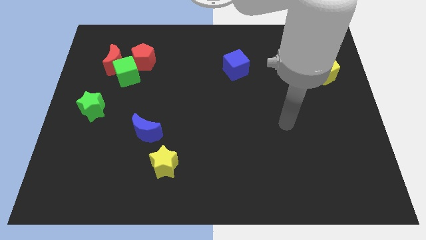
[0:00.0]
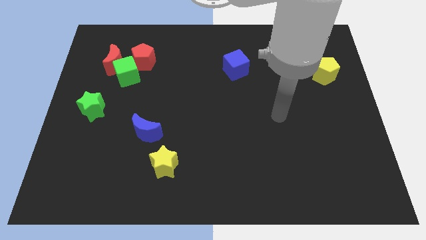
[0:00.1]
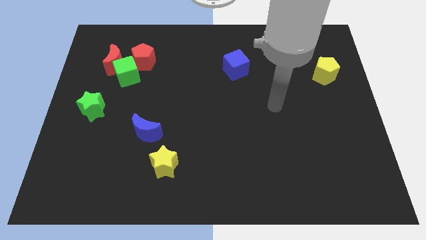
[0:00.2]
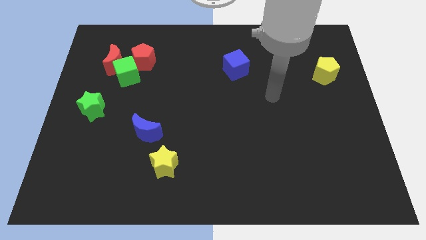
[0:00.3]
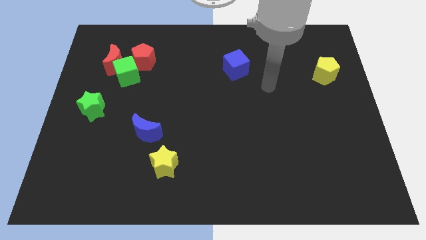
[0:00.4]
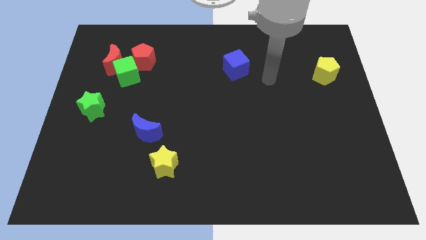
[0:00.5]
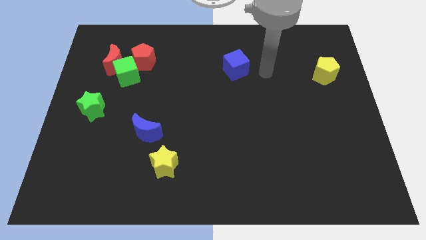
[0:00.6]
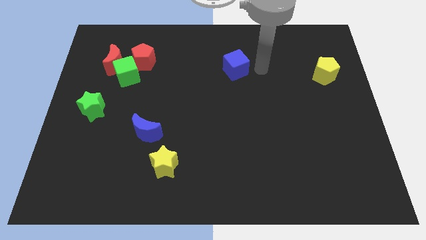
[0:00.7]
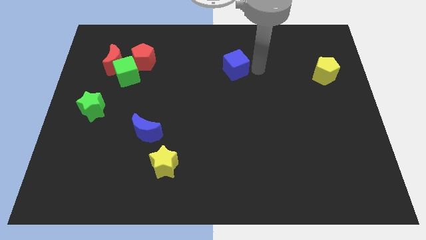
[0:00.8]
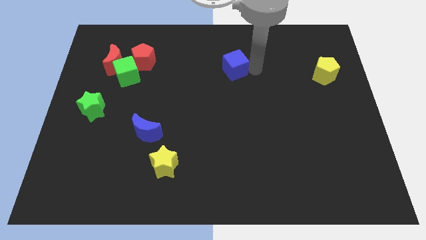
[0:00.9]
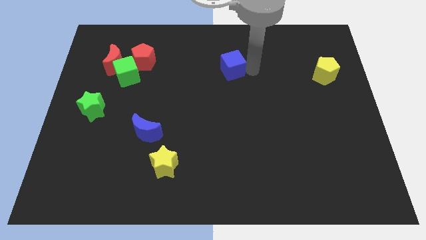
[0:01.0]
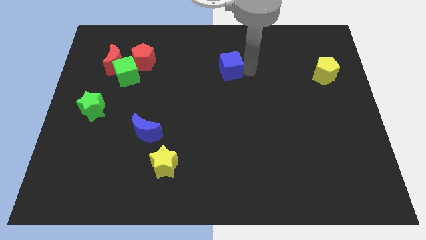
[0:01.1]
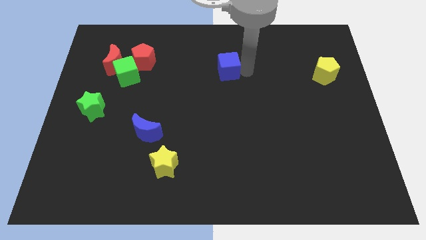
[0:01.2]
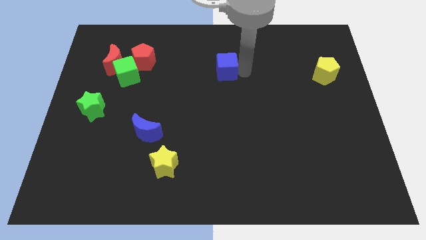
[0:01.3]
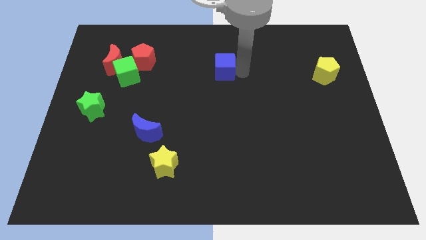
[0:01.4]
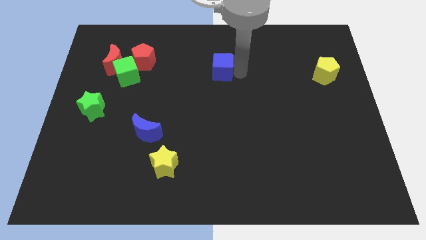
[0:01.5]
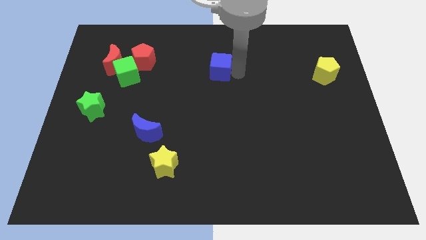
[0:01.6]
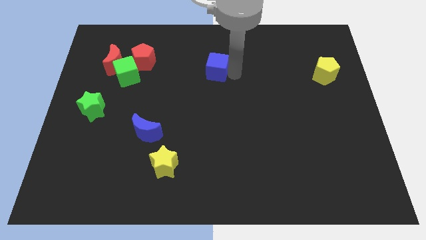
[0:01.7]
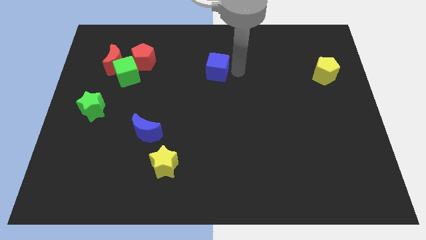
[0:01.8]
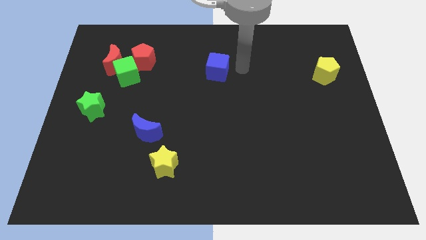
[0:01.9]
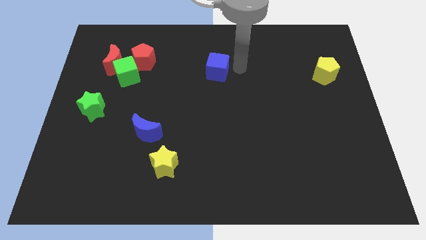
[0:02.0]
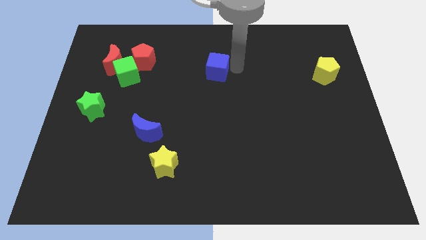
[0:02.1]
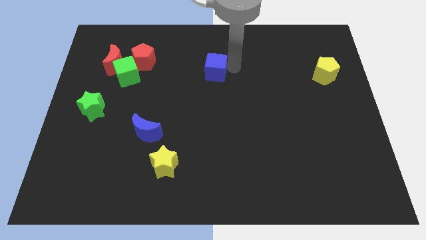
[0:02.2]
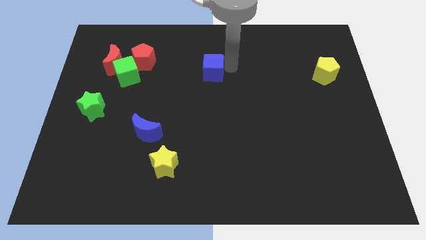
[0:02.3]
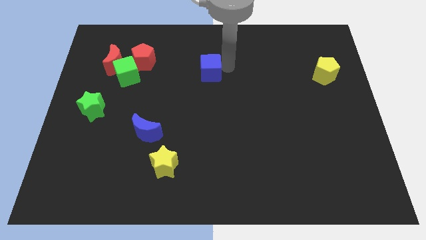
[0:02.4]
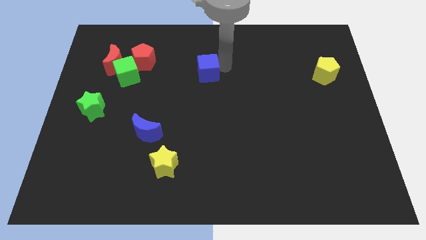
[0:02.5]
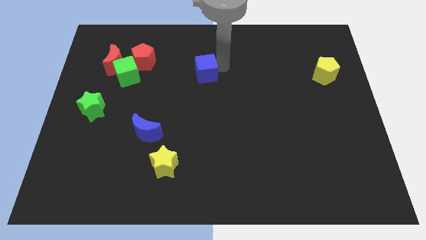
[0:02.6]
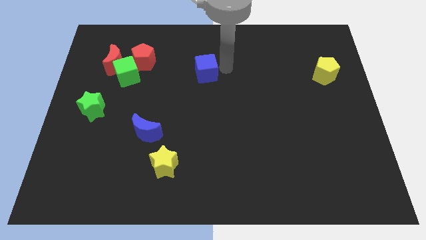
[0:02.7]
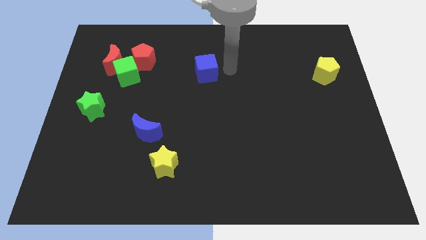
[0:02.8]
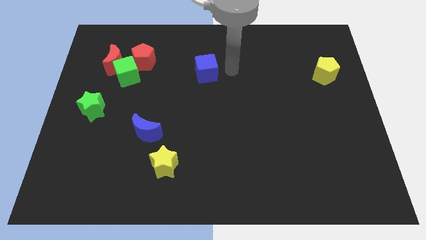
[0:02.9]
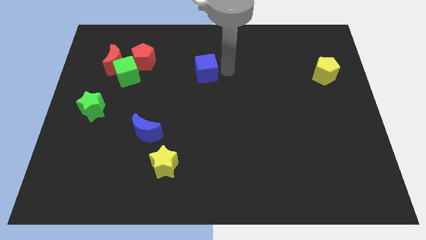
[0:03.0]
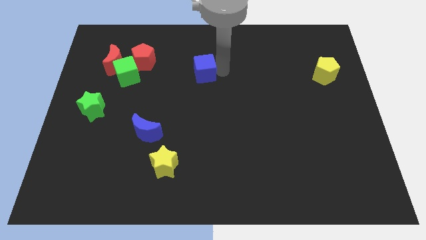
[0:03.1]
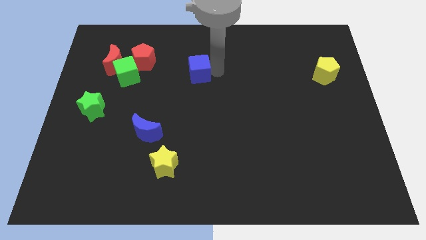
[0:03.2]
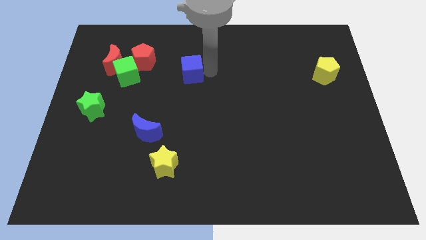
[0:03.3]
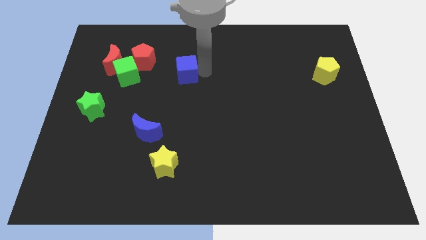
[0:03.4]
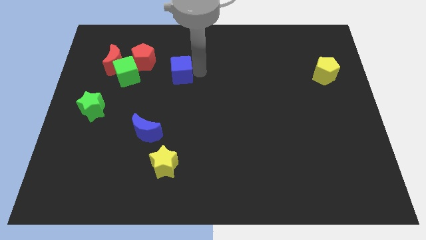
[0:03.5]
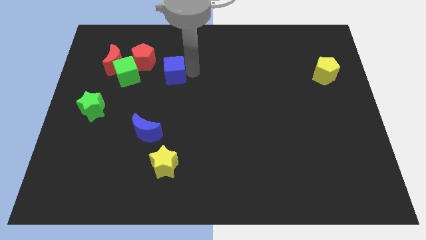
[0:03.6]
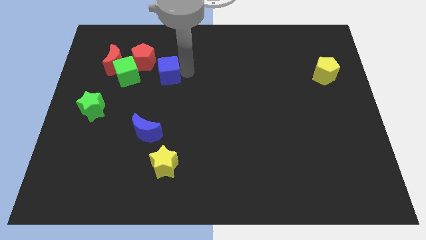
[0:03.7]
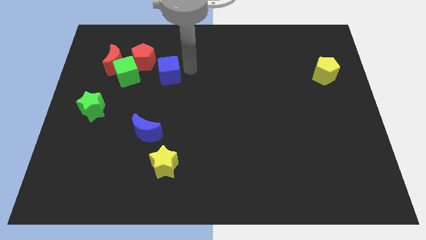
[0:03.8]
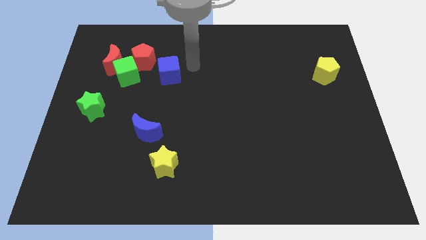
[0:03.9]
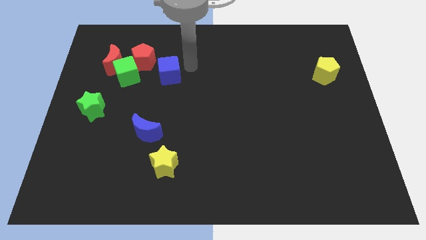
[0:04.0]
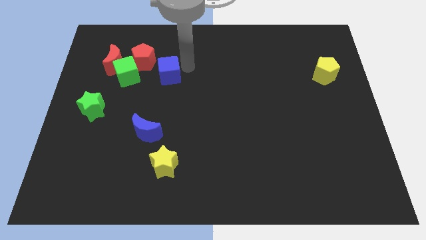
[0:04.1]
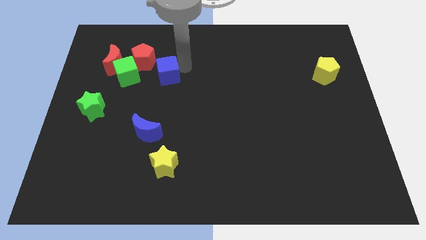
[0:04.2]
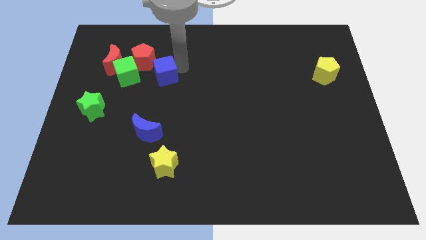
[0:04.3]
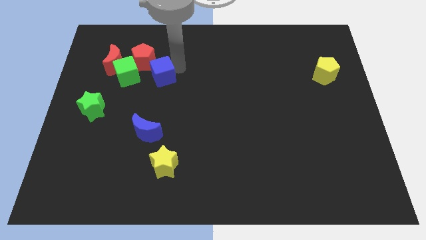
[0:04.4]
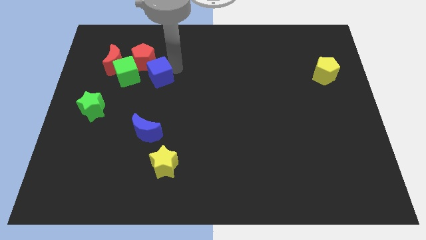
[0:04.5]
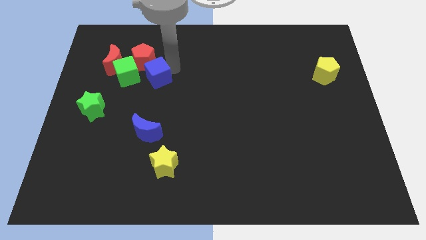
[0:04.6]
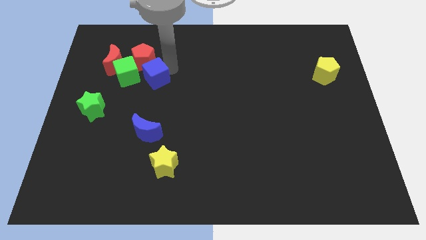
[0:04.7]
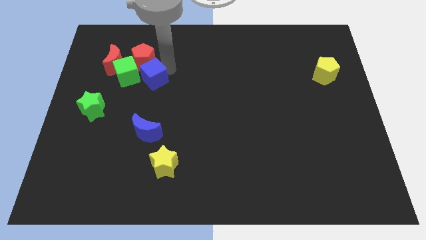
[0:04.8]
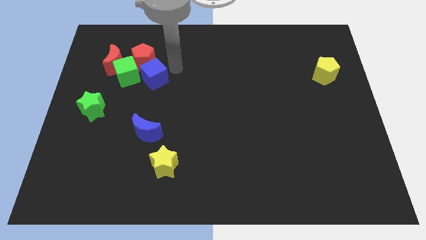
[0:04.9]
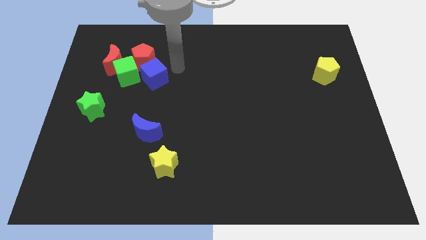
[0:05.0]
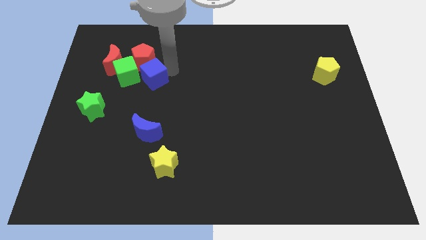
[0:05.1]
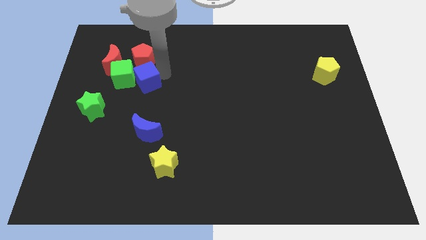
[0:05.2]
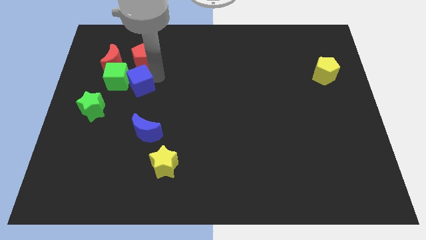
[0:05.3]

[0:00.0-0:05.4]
put the blue cube diagonally up and to the right of the green star
